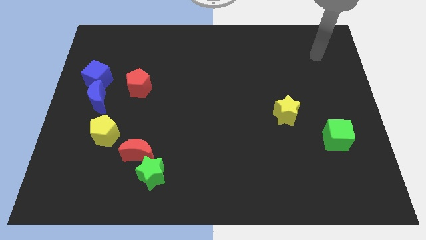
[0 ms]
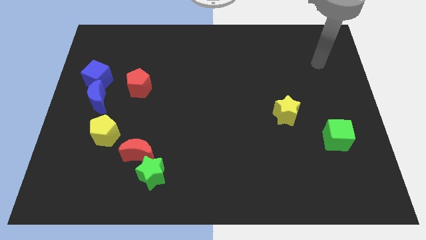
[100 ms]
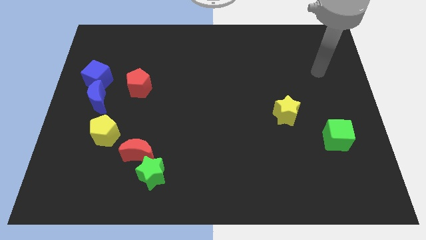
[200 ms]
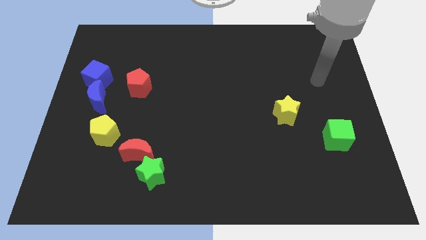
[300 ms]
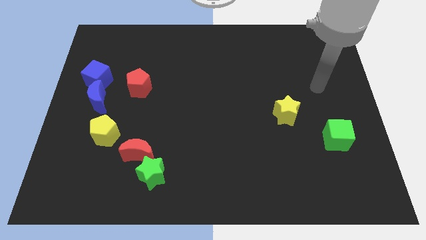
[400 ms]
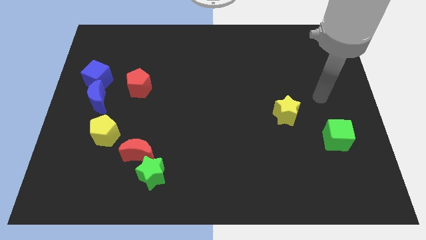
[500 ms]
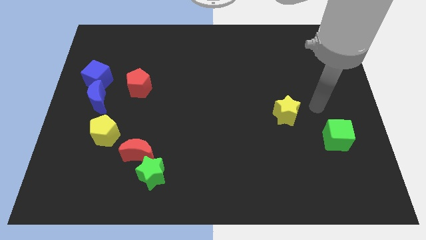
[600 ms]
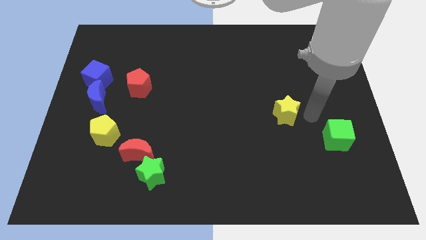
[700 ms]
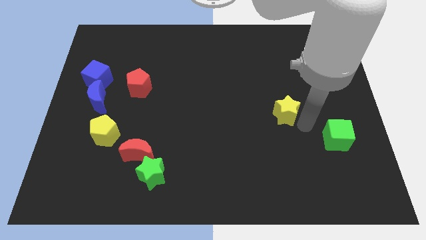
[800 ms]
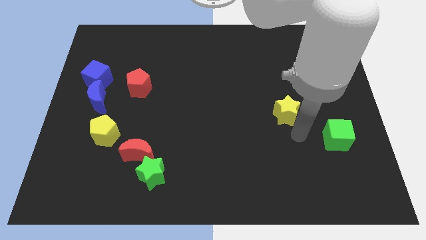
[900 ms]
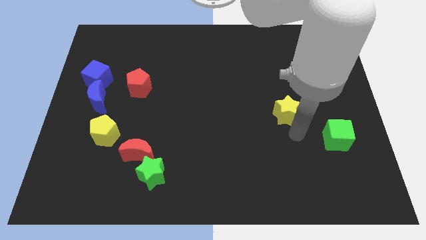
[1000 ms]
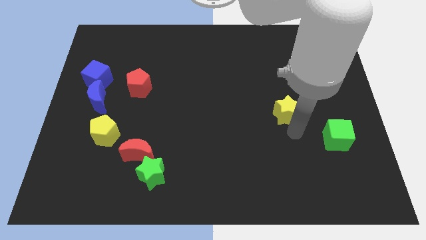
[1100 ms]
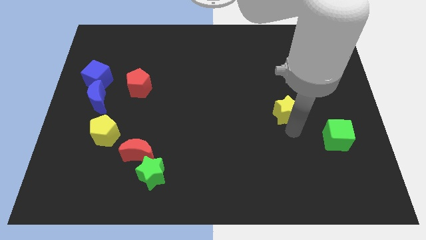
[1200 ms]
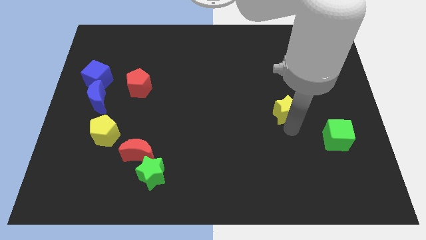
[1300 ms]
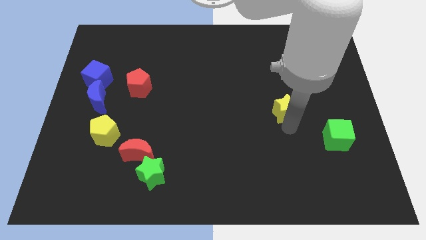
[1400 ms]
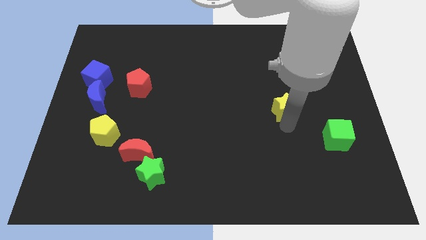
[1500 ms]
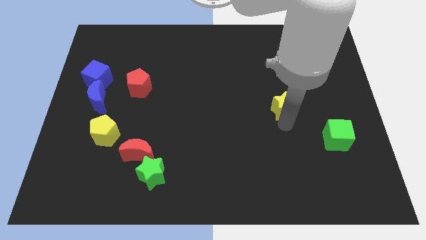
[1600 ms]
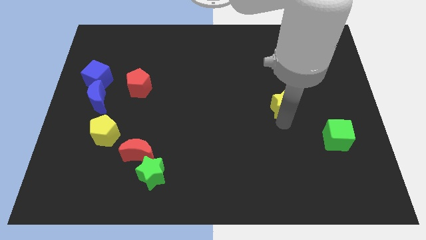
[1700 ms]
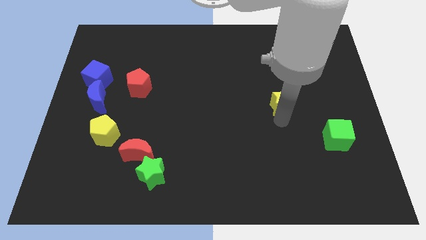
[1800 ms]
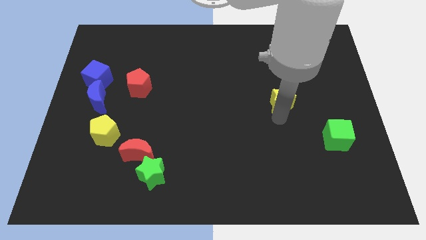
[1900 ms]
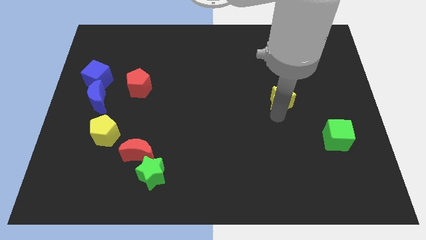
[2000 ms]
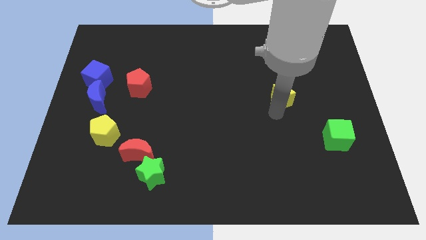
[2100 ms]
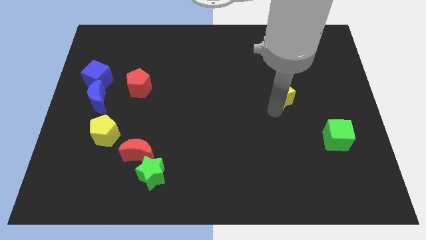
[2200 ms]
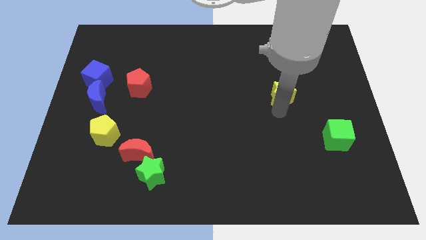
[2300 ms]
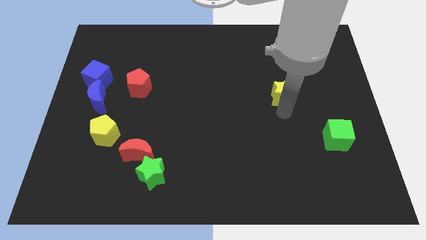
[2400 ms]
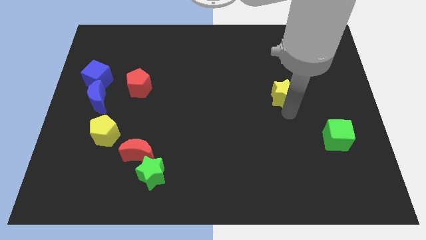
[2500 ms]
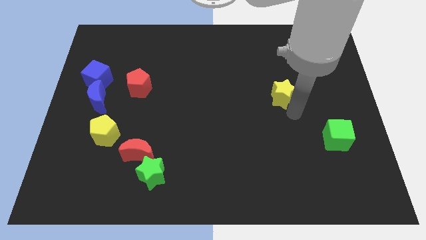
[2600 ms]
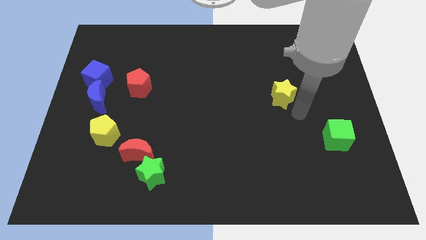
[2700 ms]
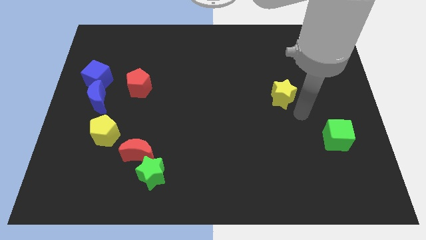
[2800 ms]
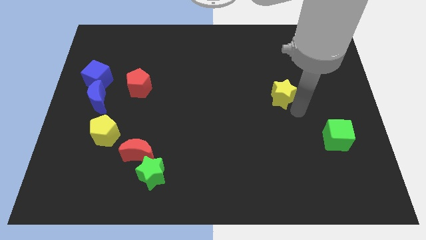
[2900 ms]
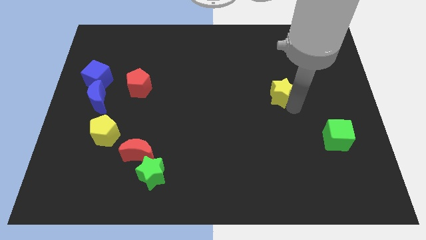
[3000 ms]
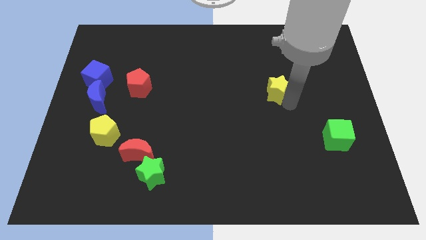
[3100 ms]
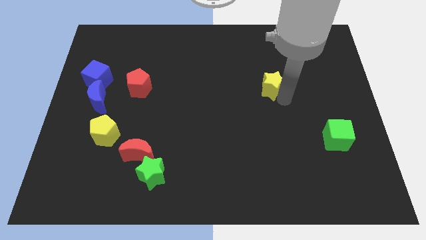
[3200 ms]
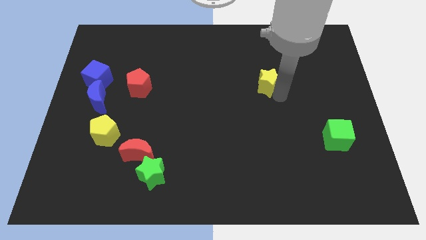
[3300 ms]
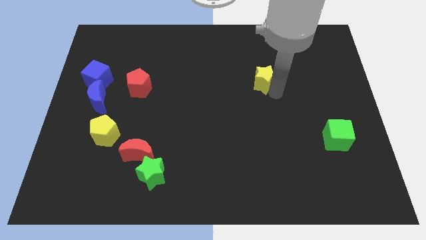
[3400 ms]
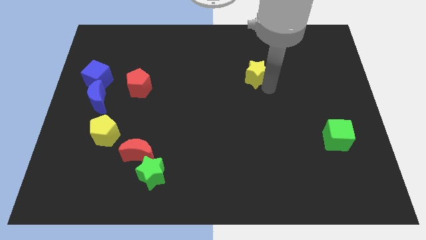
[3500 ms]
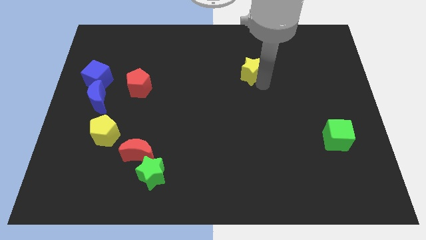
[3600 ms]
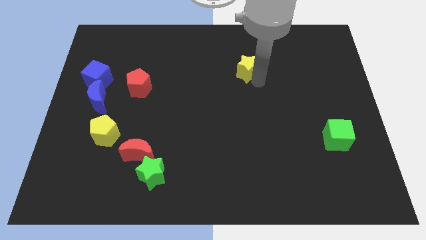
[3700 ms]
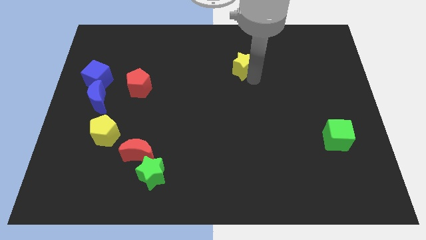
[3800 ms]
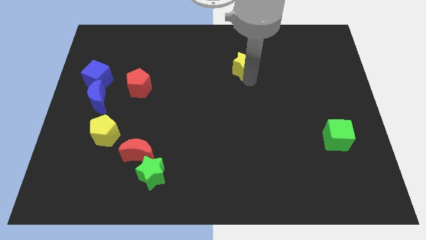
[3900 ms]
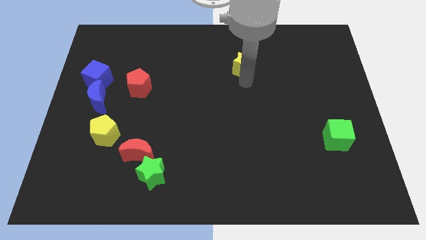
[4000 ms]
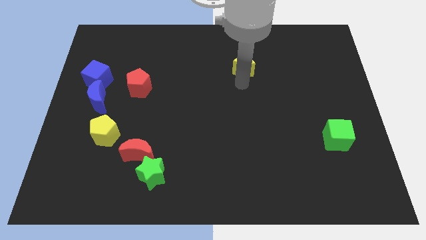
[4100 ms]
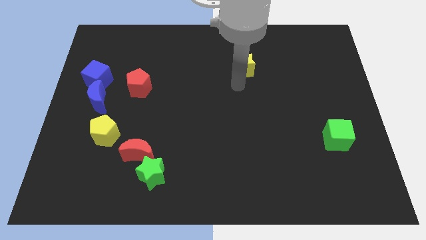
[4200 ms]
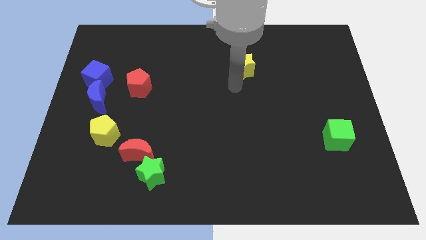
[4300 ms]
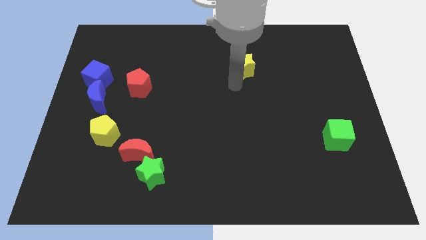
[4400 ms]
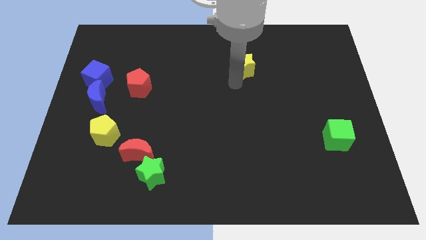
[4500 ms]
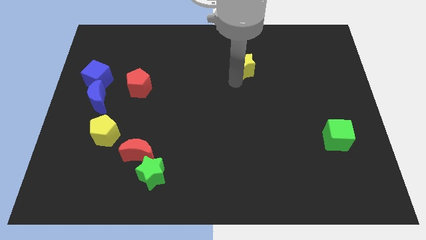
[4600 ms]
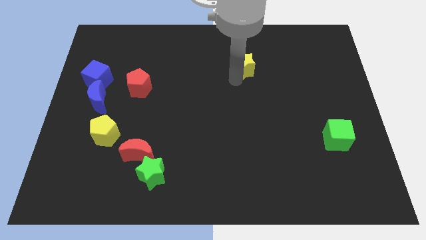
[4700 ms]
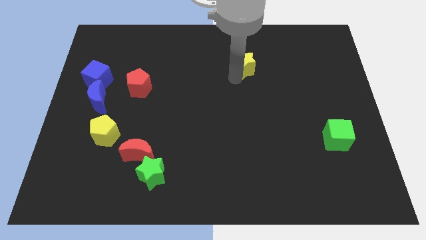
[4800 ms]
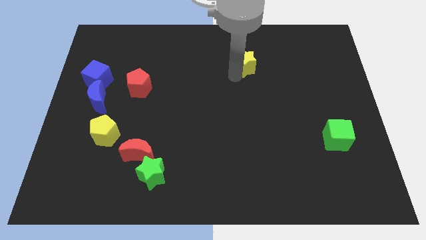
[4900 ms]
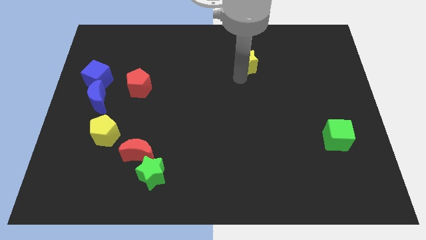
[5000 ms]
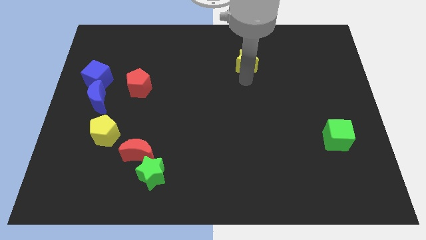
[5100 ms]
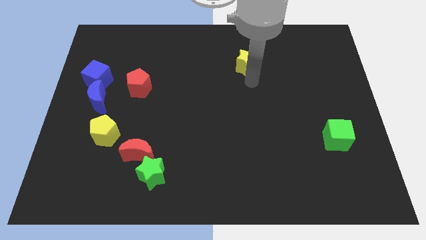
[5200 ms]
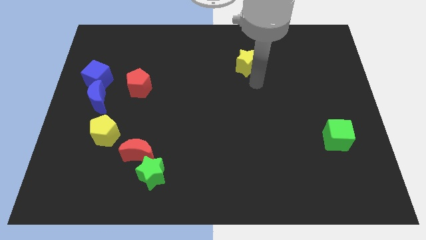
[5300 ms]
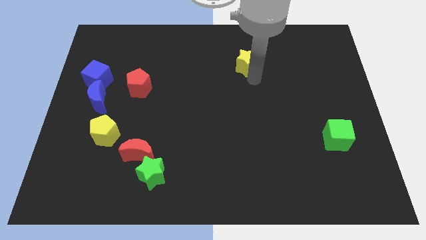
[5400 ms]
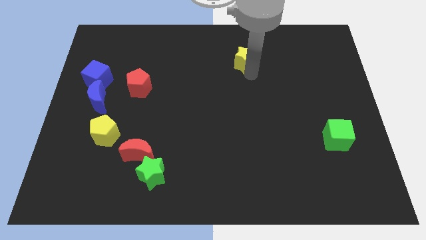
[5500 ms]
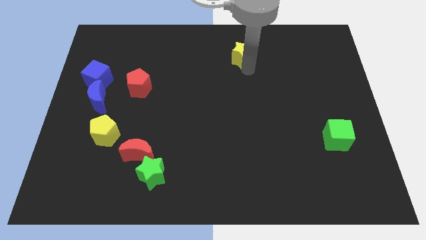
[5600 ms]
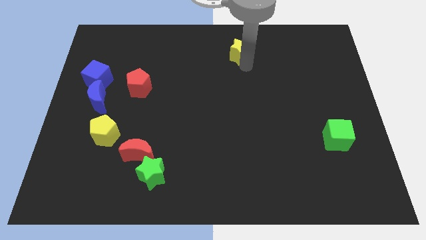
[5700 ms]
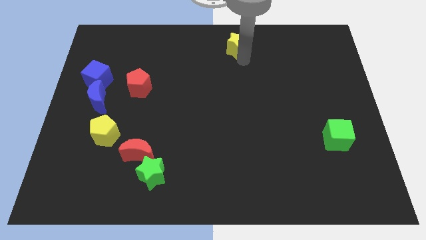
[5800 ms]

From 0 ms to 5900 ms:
slide the yellow star to the top
